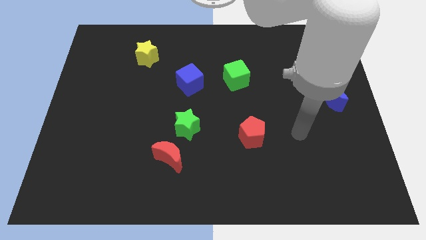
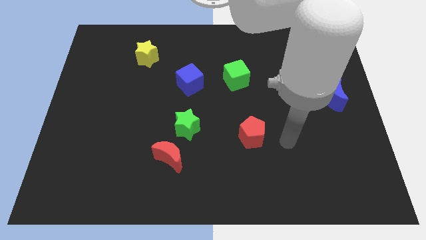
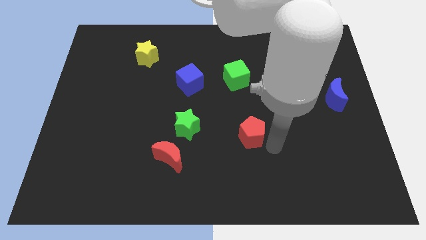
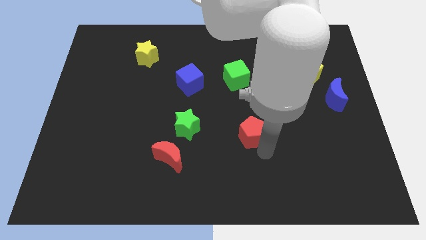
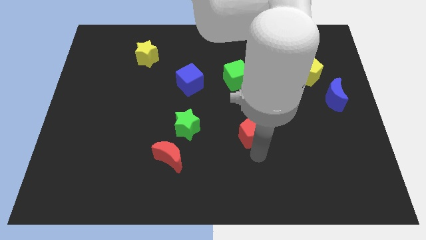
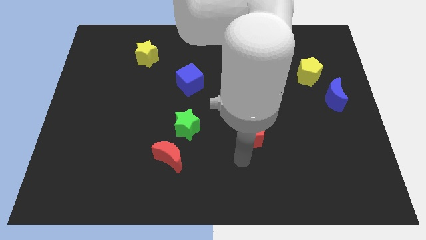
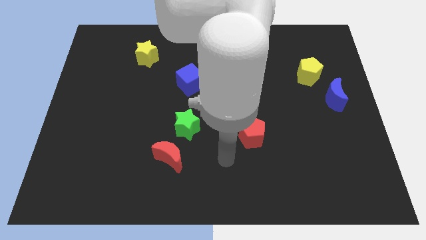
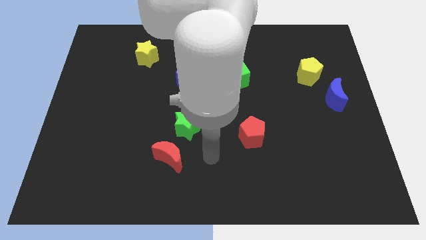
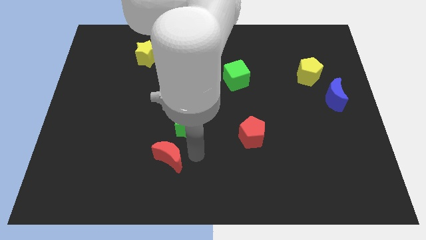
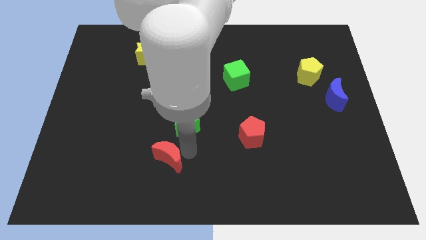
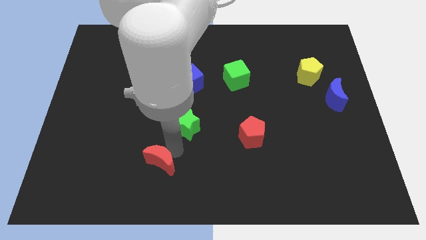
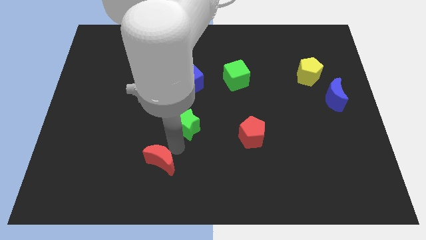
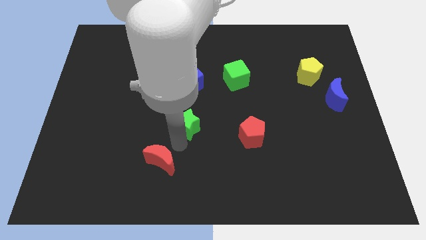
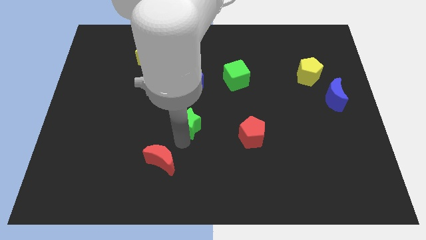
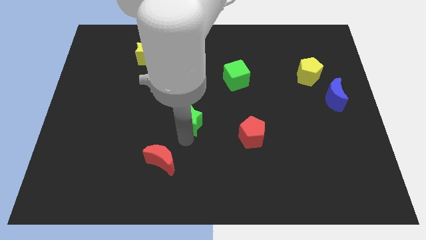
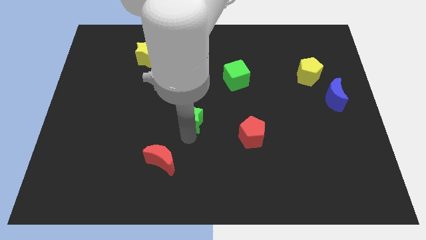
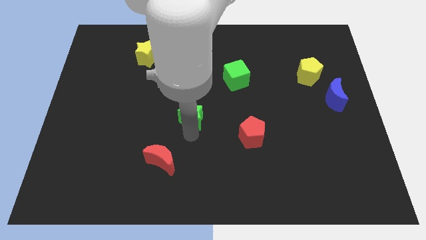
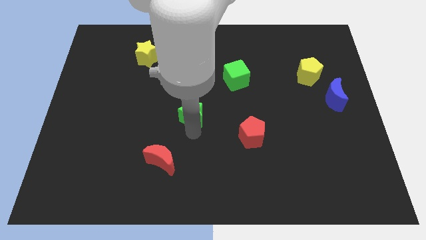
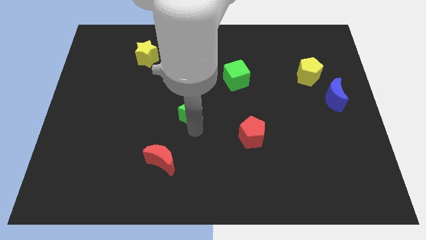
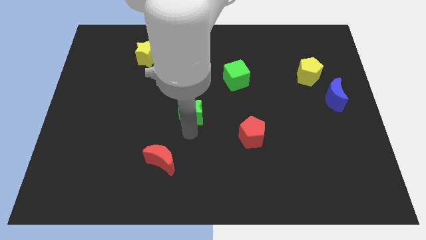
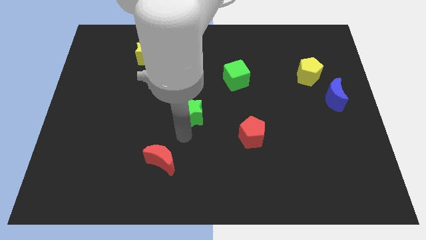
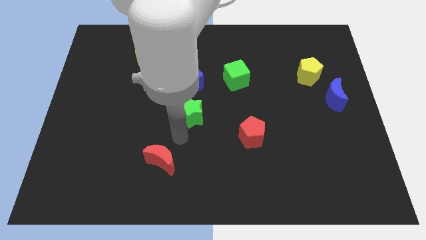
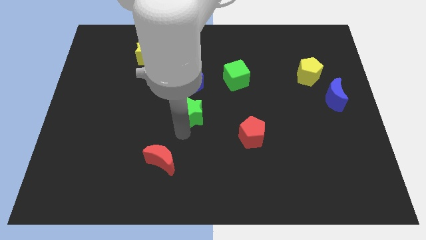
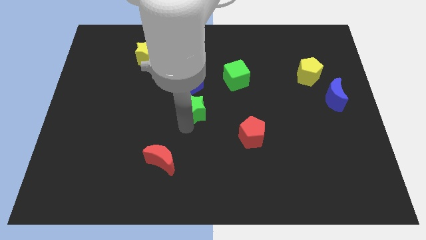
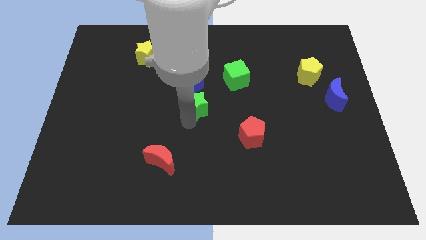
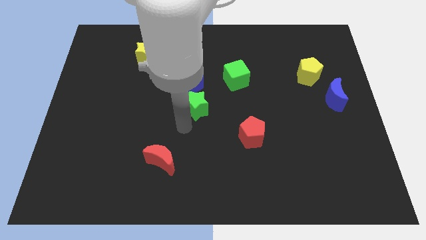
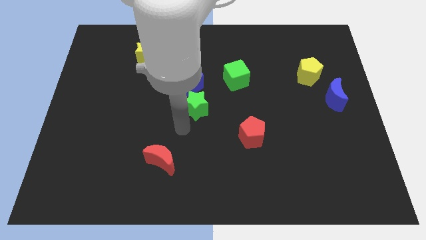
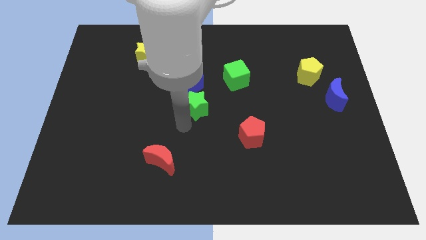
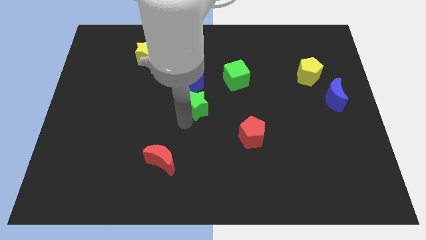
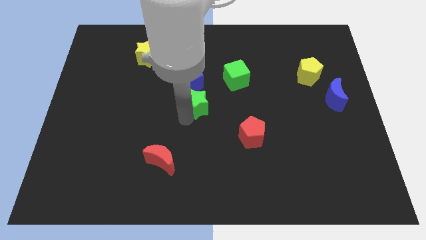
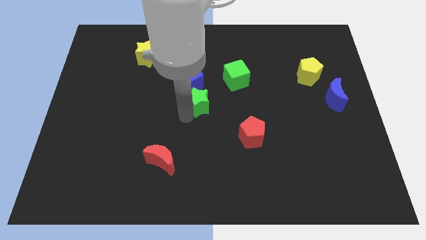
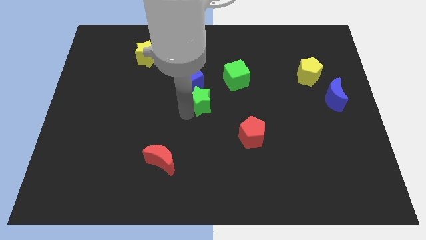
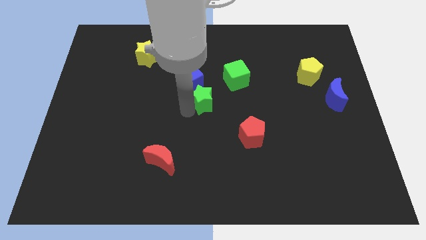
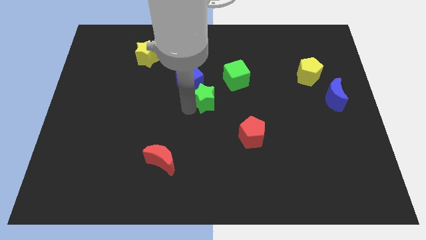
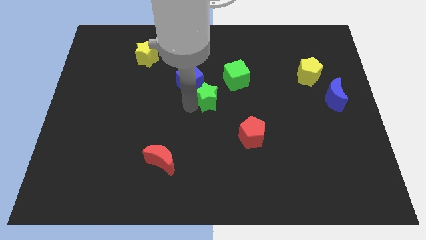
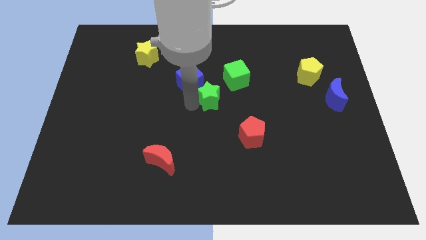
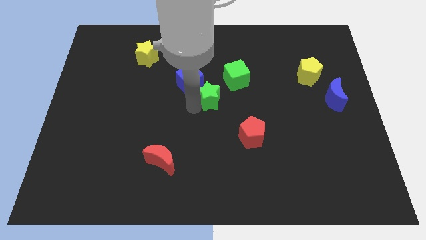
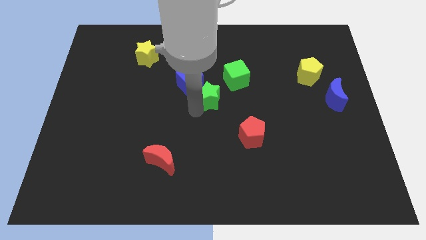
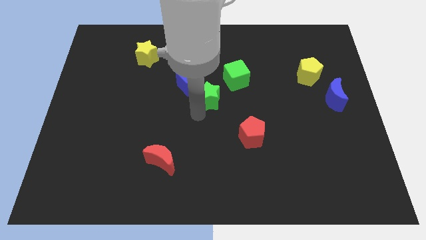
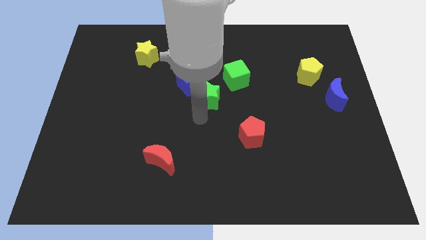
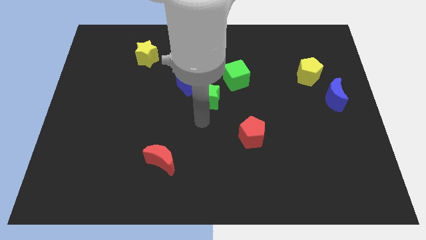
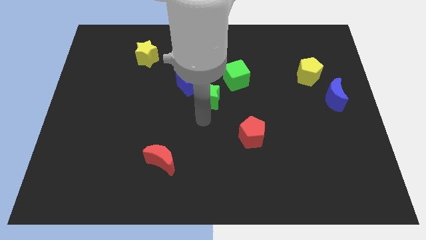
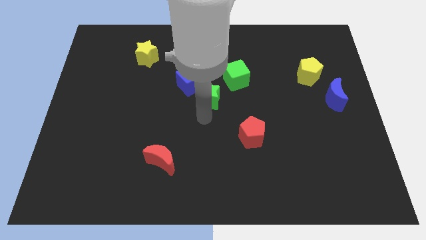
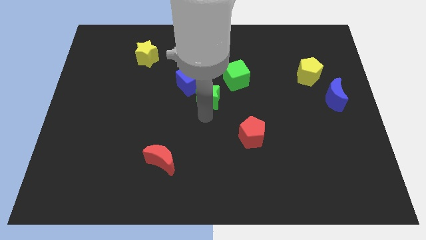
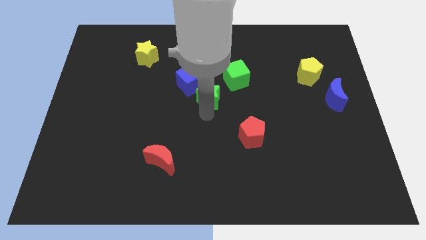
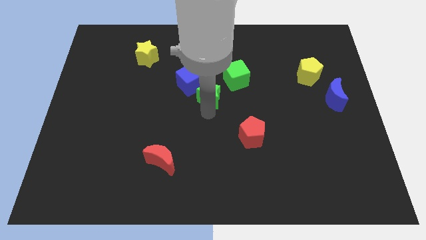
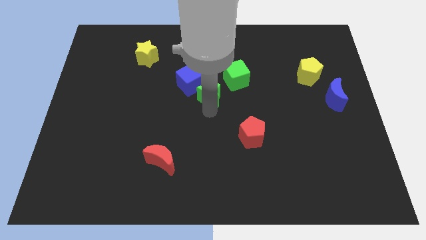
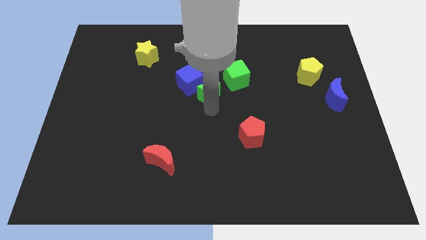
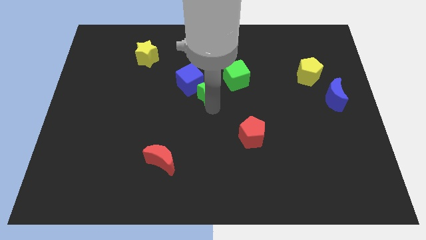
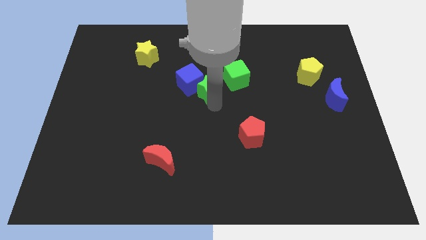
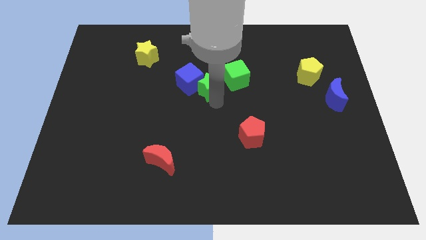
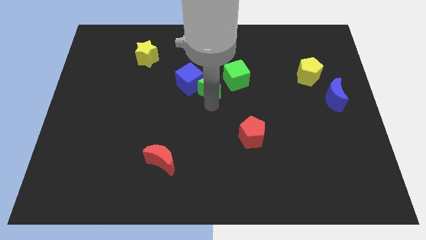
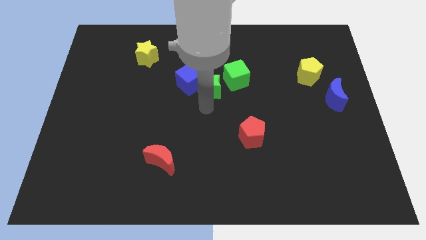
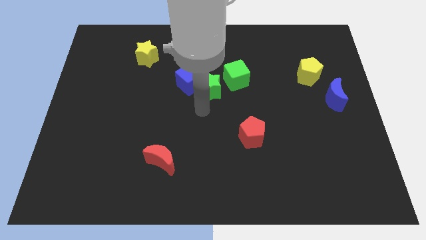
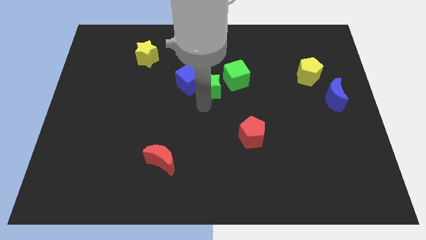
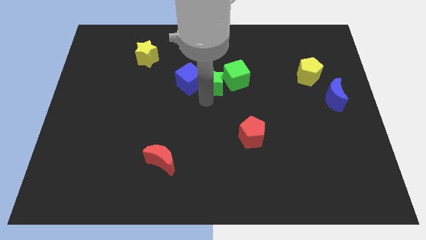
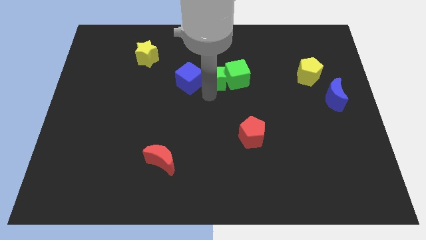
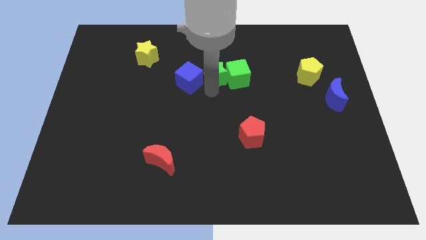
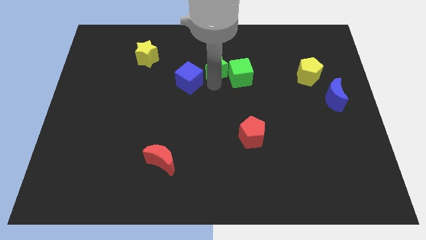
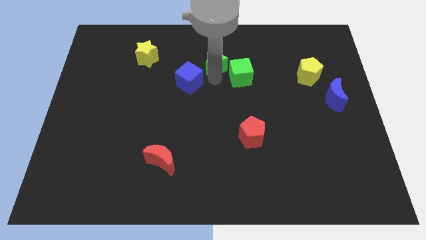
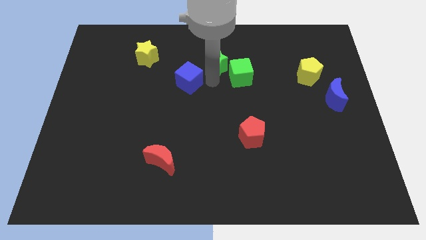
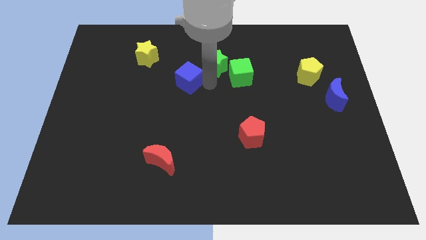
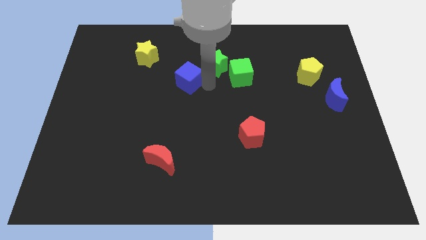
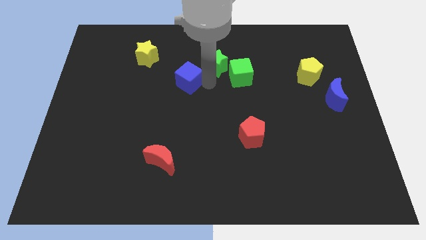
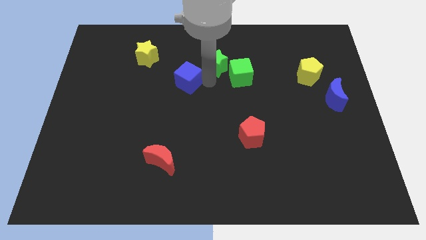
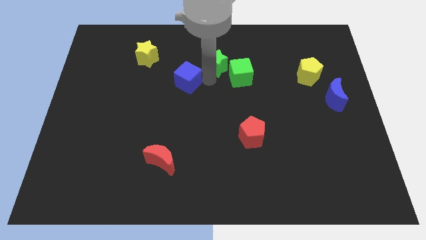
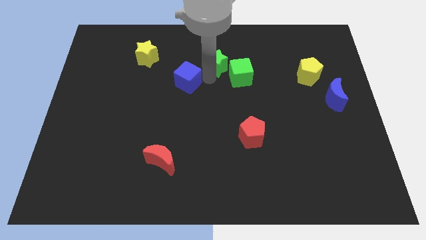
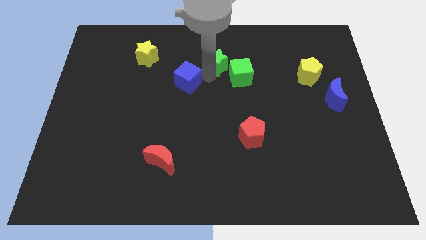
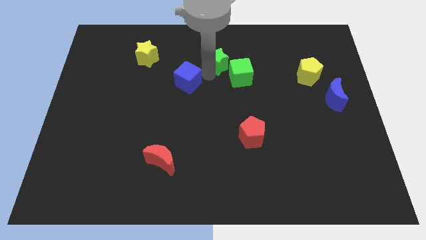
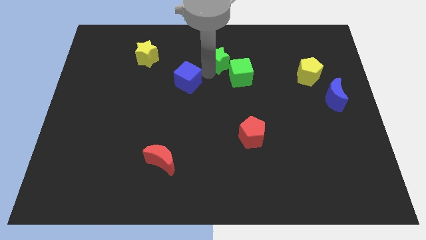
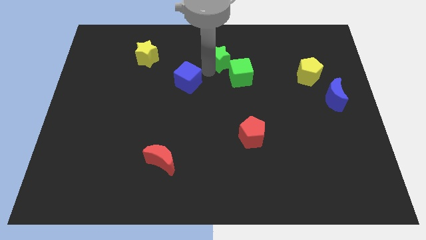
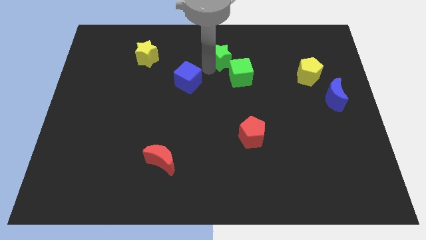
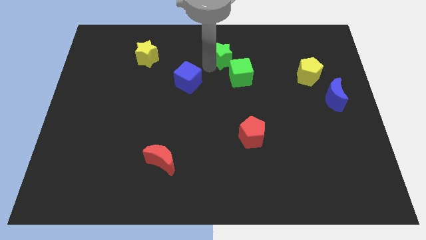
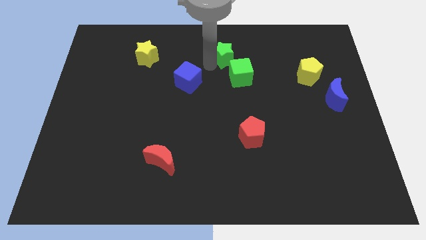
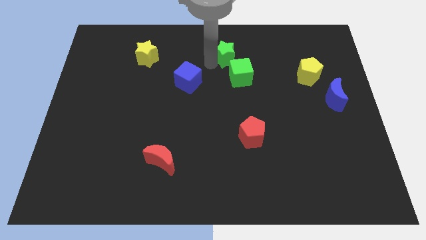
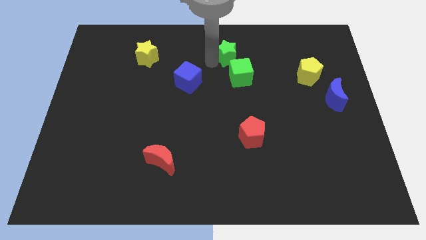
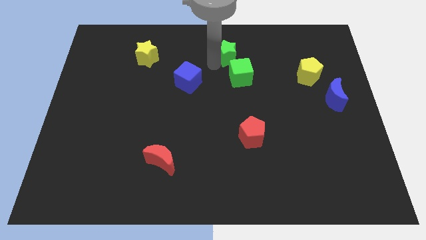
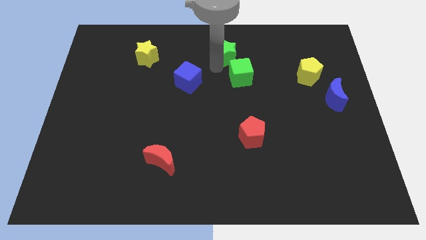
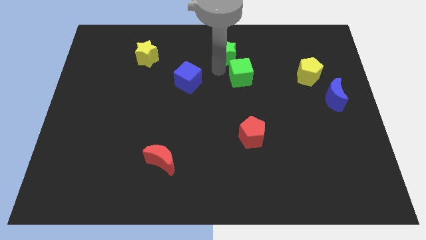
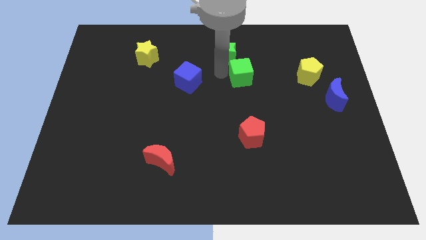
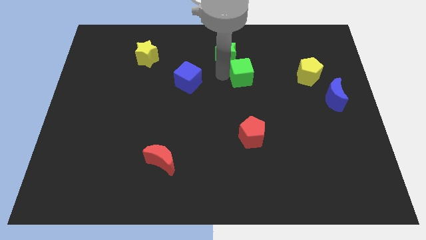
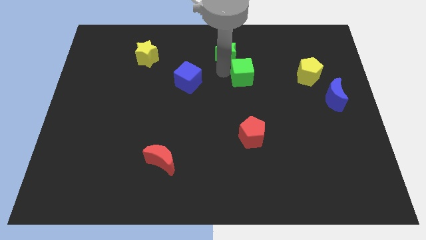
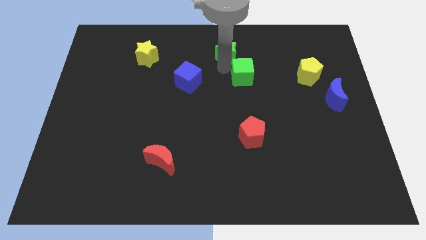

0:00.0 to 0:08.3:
slide the green star to the towards your base
